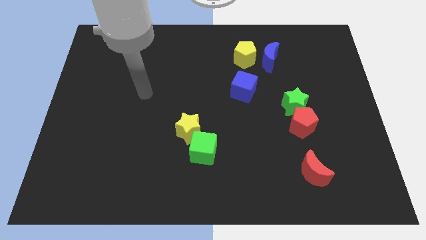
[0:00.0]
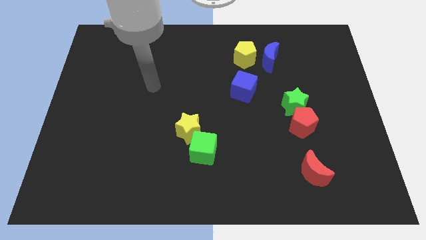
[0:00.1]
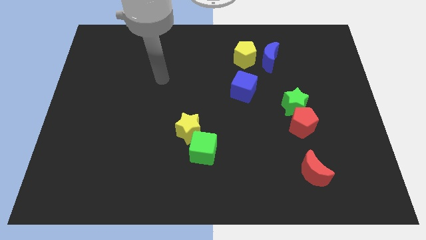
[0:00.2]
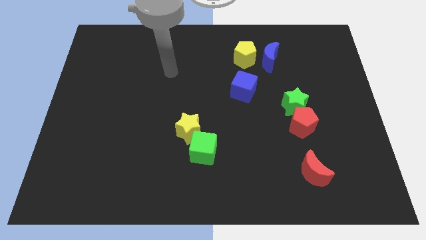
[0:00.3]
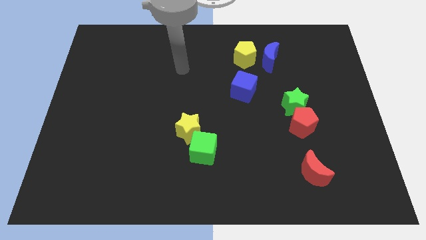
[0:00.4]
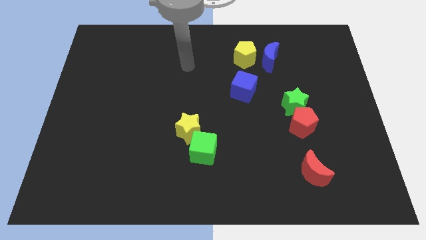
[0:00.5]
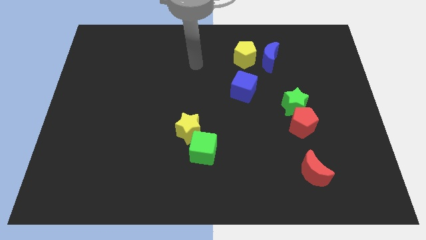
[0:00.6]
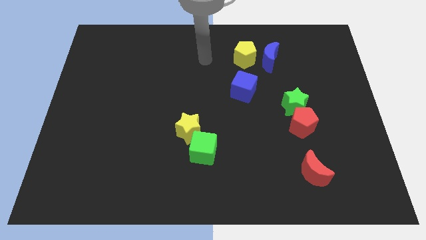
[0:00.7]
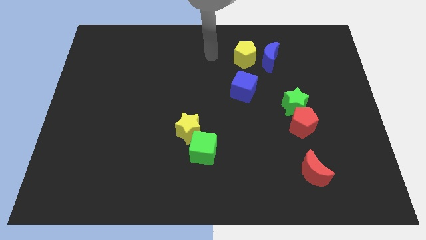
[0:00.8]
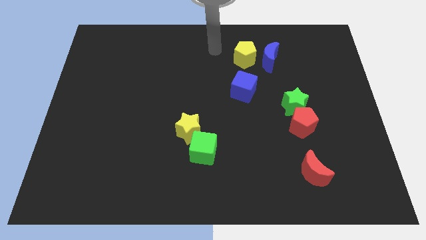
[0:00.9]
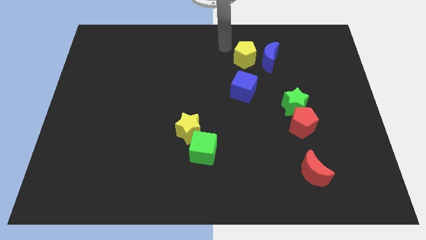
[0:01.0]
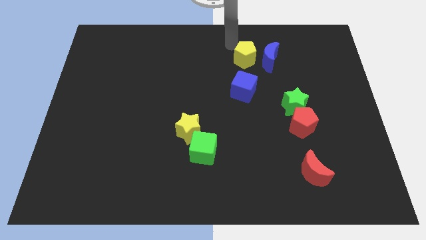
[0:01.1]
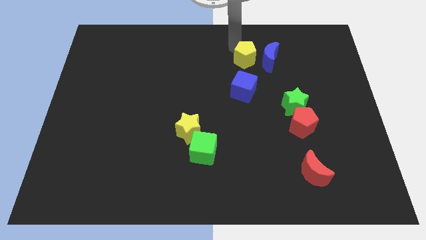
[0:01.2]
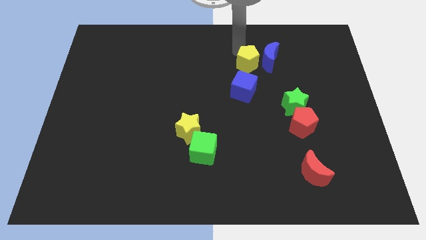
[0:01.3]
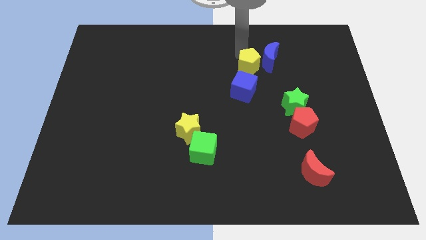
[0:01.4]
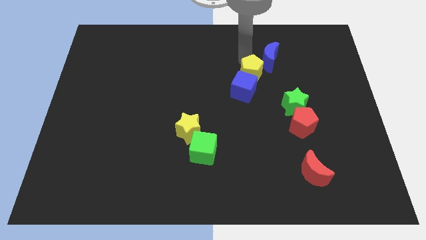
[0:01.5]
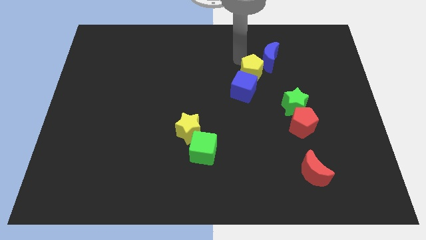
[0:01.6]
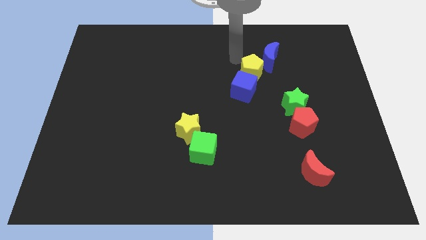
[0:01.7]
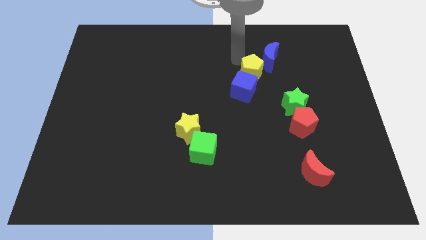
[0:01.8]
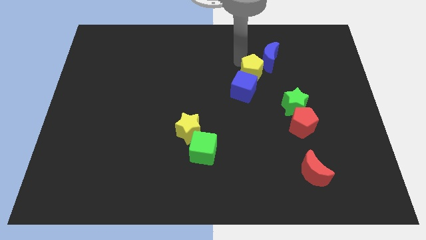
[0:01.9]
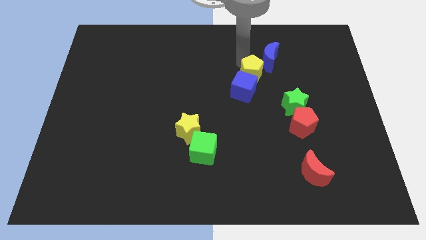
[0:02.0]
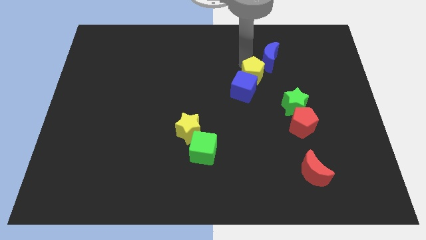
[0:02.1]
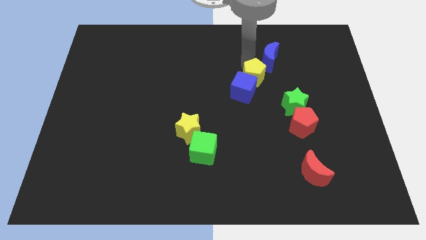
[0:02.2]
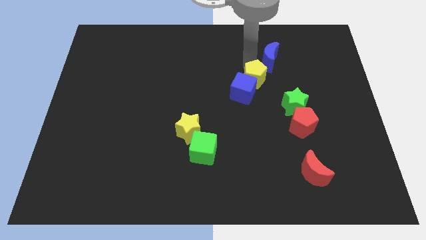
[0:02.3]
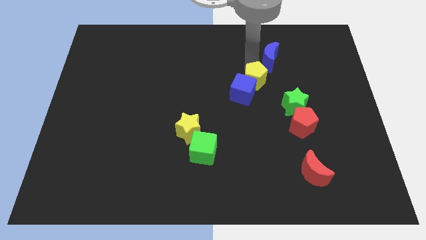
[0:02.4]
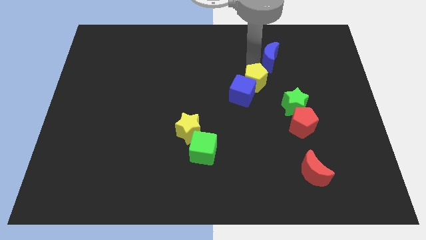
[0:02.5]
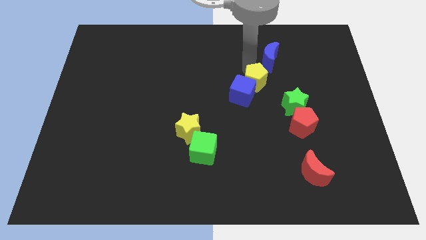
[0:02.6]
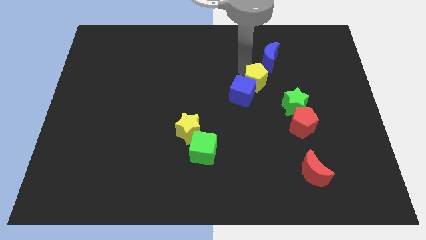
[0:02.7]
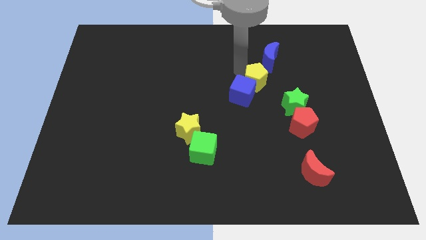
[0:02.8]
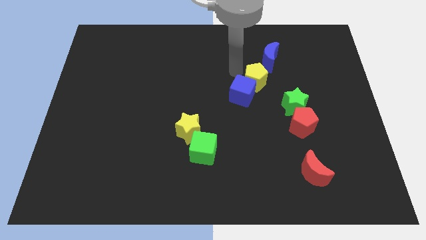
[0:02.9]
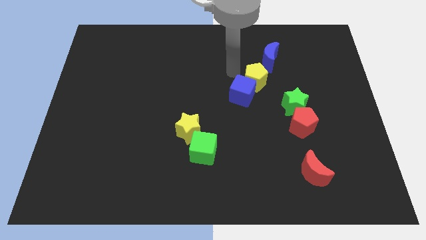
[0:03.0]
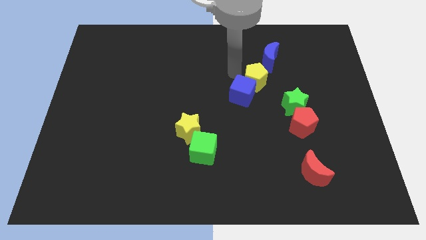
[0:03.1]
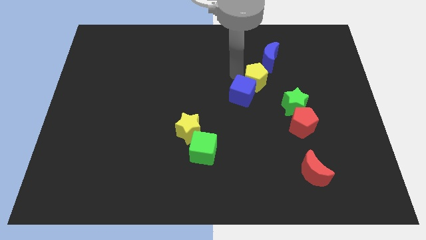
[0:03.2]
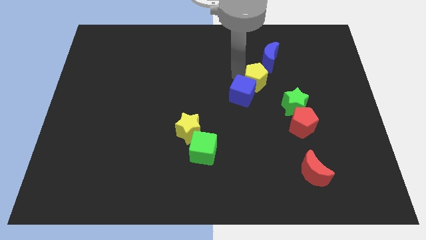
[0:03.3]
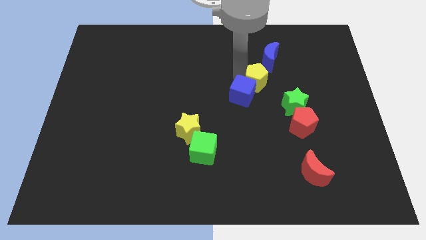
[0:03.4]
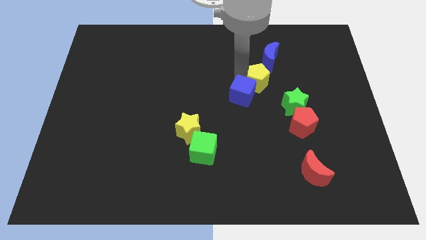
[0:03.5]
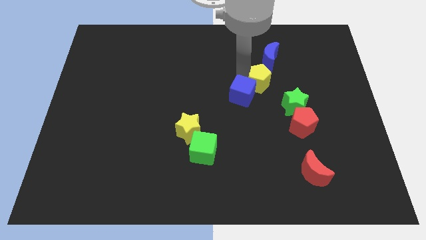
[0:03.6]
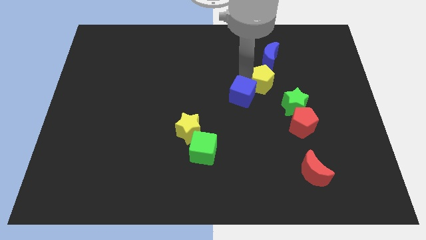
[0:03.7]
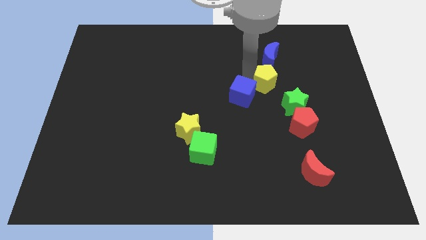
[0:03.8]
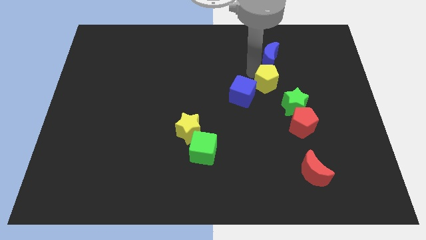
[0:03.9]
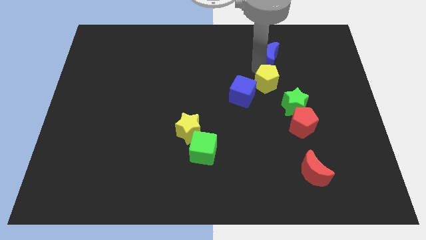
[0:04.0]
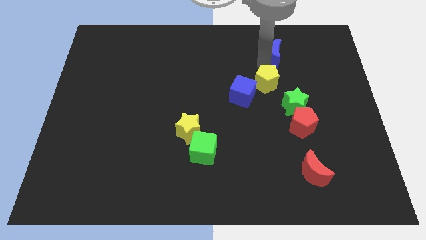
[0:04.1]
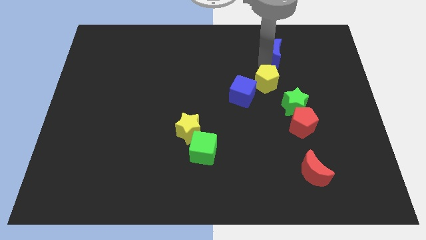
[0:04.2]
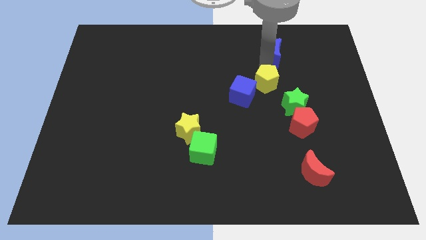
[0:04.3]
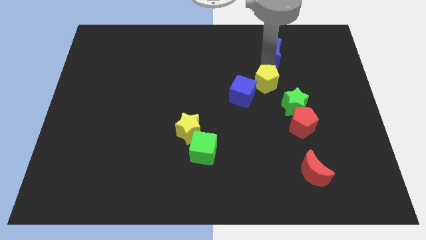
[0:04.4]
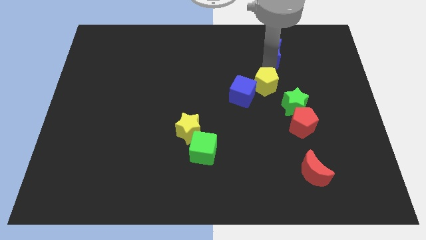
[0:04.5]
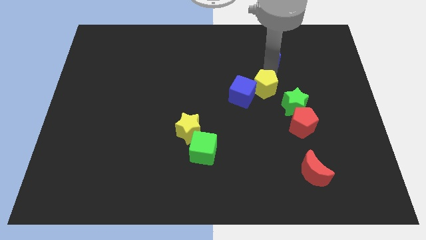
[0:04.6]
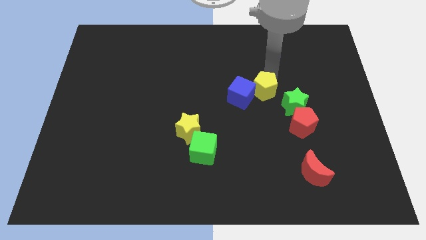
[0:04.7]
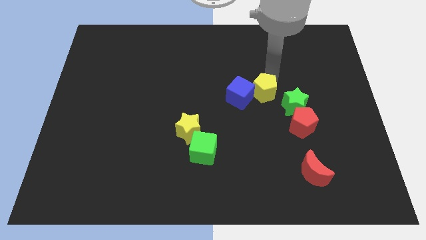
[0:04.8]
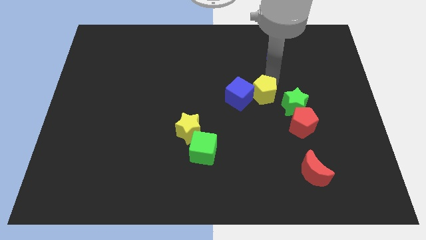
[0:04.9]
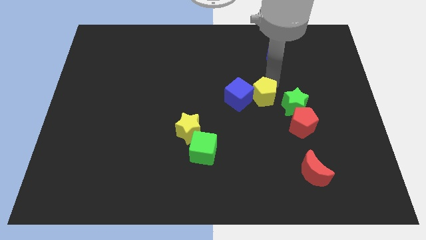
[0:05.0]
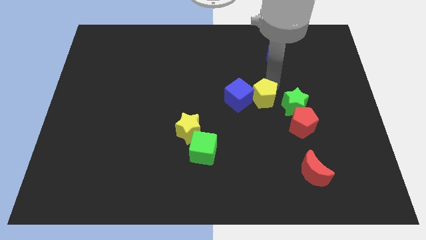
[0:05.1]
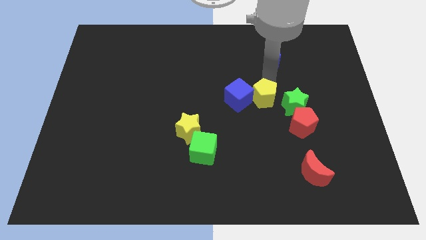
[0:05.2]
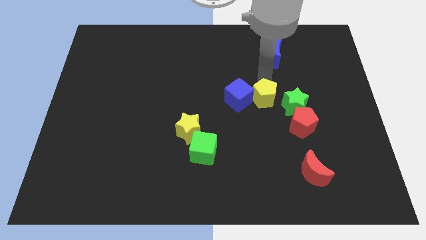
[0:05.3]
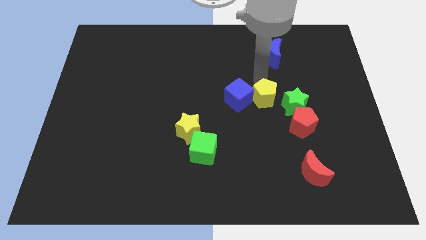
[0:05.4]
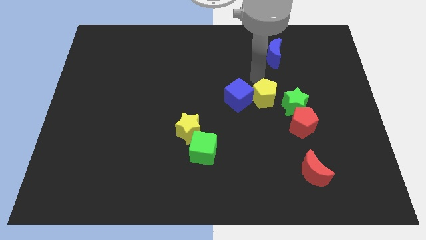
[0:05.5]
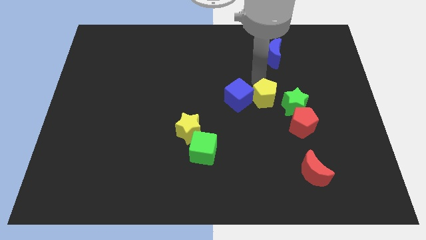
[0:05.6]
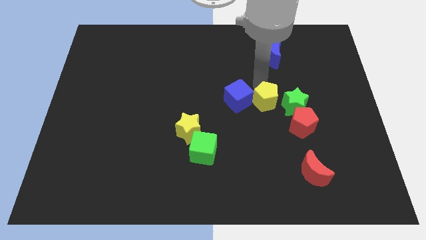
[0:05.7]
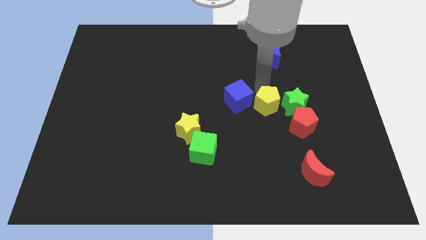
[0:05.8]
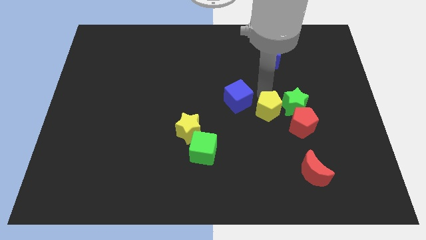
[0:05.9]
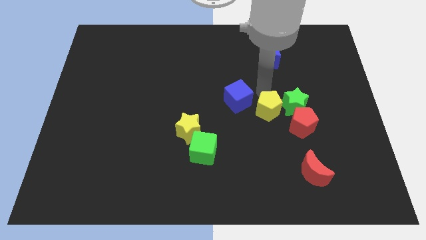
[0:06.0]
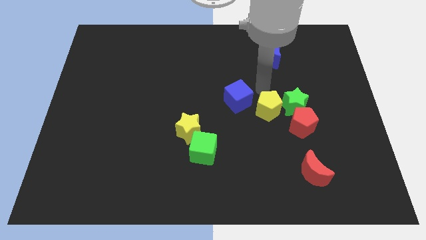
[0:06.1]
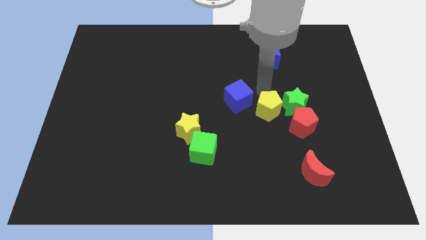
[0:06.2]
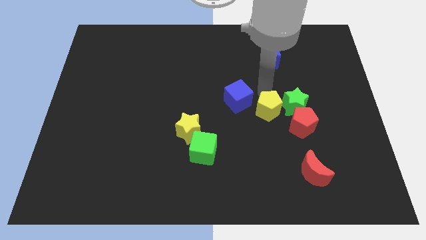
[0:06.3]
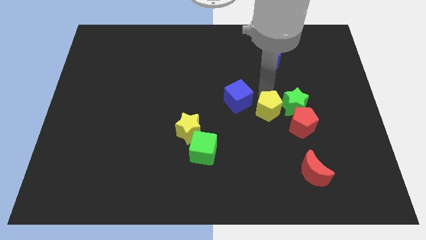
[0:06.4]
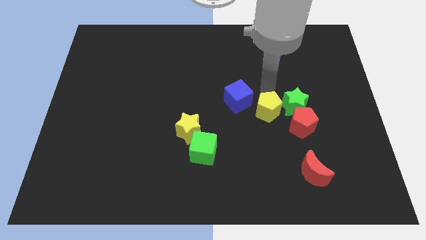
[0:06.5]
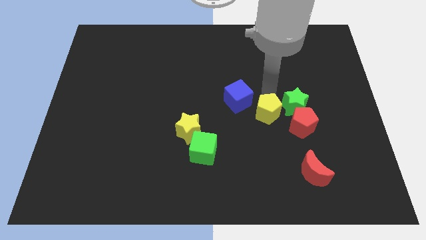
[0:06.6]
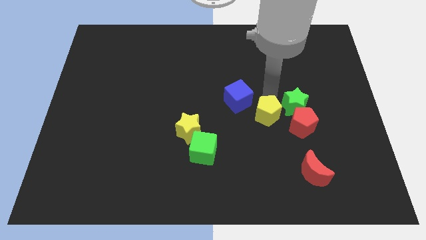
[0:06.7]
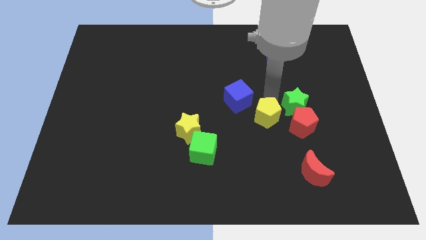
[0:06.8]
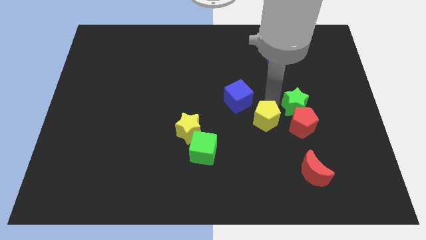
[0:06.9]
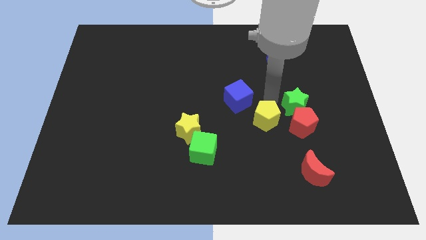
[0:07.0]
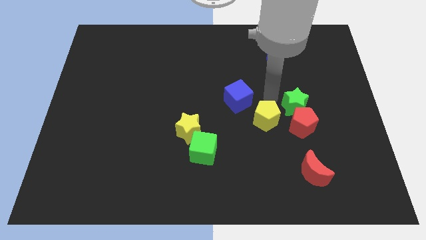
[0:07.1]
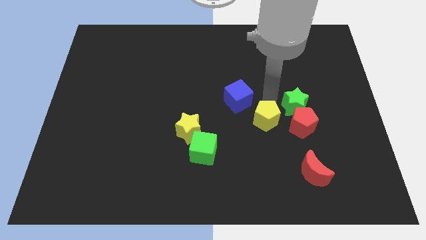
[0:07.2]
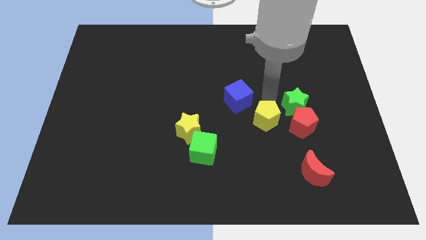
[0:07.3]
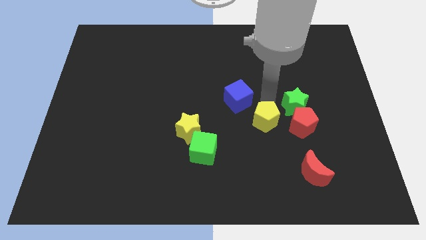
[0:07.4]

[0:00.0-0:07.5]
slide the yellow pentagon downwards

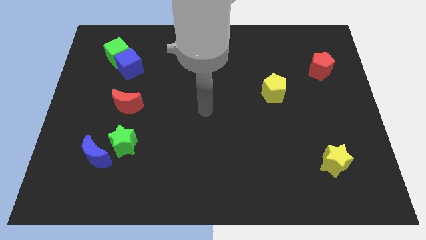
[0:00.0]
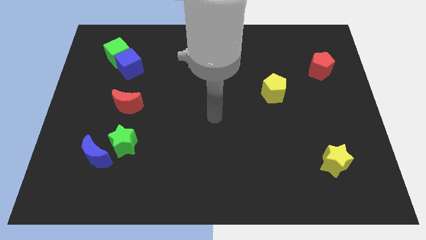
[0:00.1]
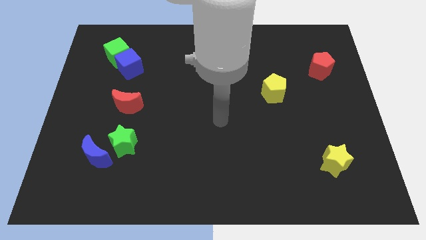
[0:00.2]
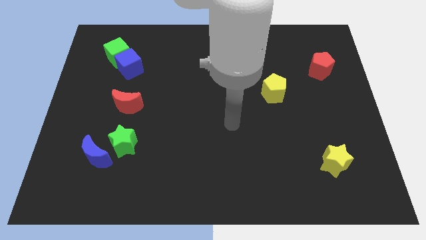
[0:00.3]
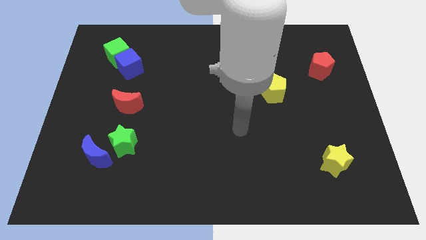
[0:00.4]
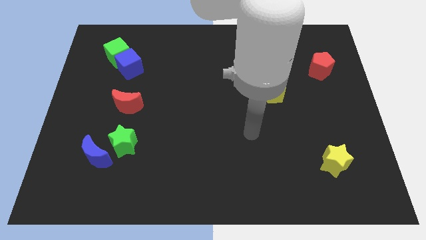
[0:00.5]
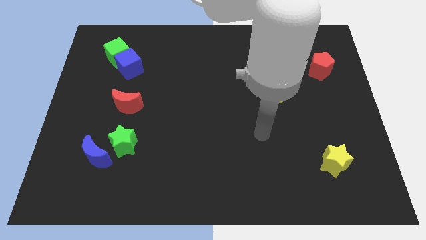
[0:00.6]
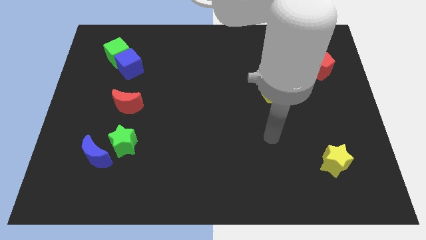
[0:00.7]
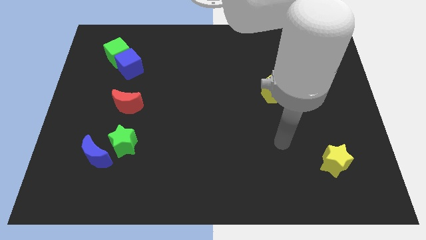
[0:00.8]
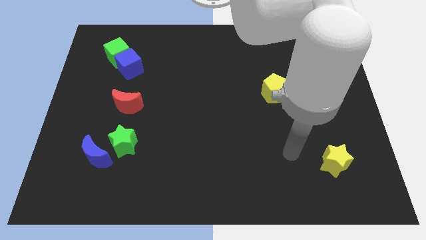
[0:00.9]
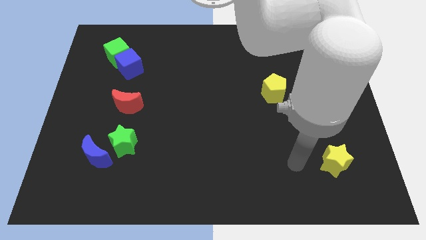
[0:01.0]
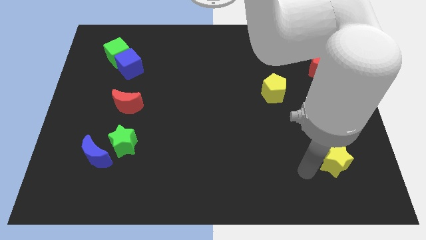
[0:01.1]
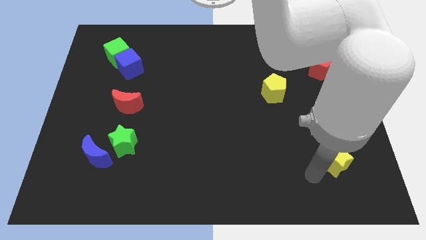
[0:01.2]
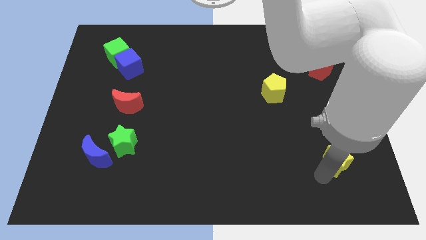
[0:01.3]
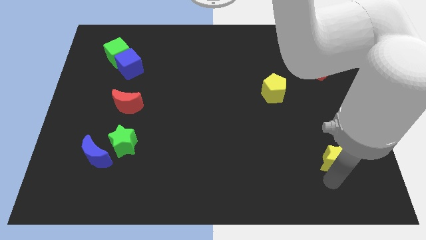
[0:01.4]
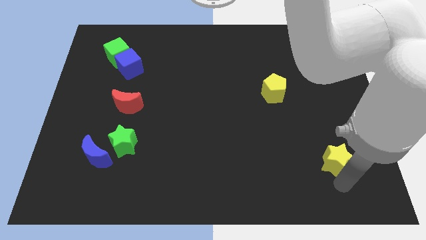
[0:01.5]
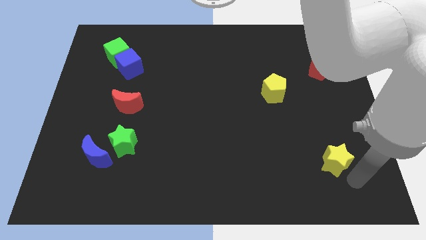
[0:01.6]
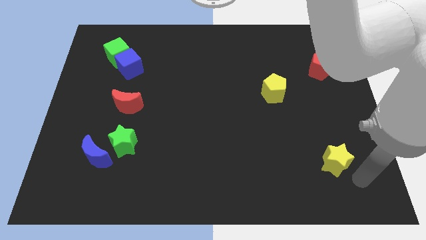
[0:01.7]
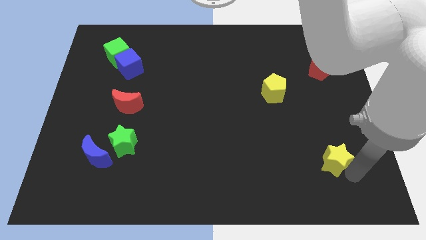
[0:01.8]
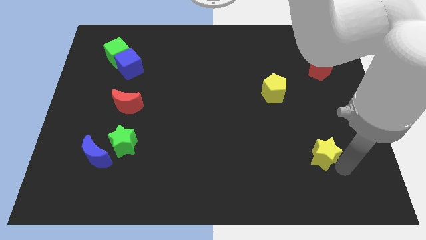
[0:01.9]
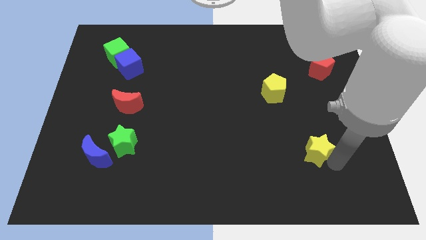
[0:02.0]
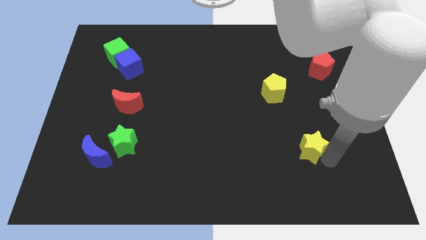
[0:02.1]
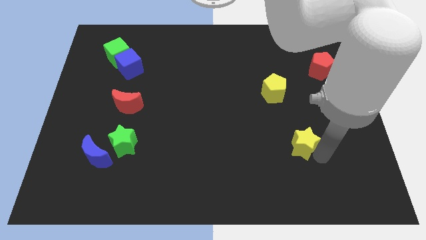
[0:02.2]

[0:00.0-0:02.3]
slightly slide the yellow star up and to the left
